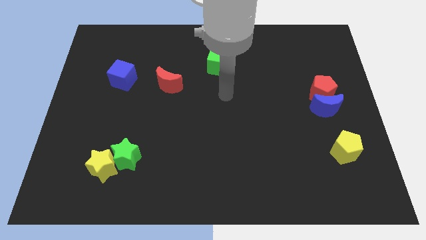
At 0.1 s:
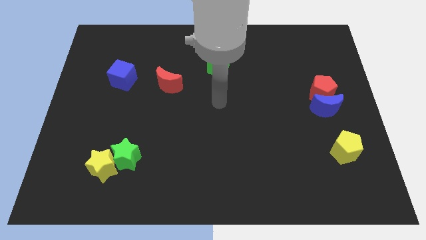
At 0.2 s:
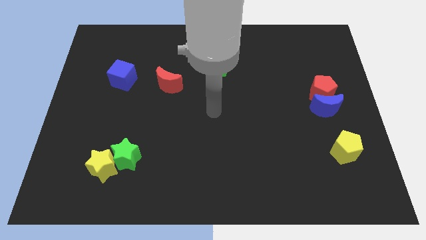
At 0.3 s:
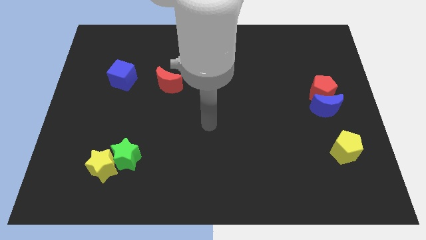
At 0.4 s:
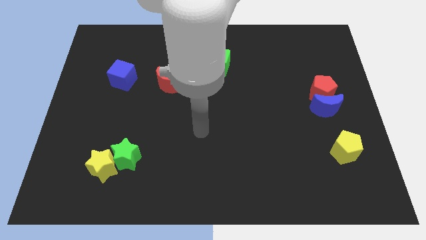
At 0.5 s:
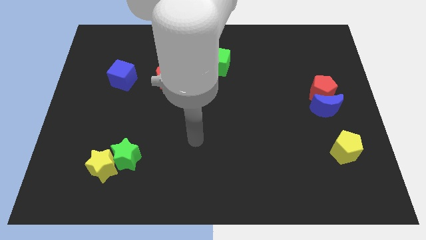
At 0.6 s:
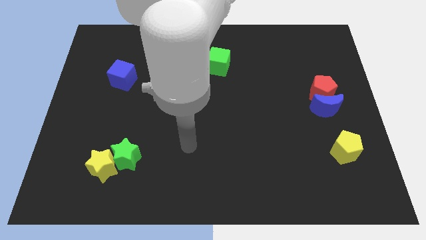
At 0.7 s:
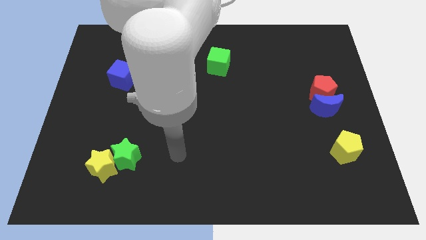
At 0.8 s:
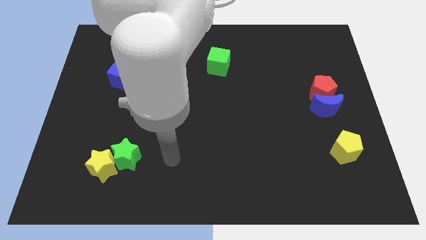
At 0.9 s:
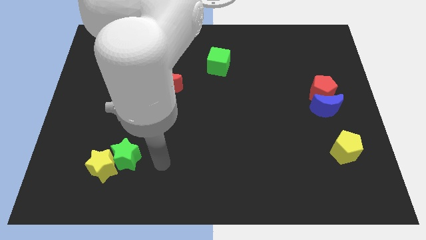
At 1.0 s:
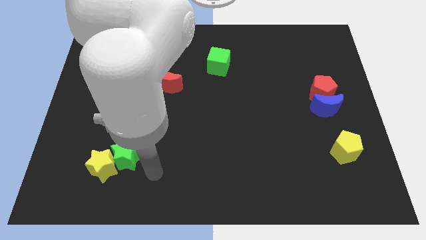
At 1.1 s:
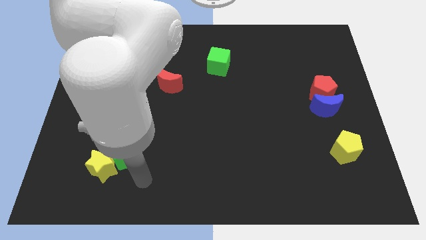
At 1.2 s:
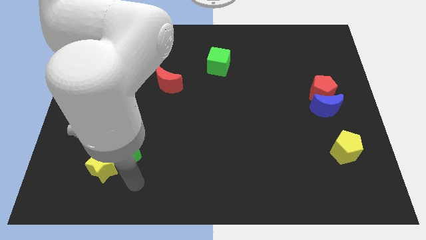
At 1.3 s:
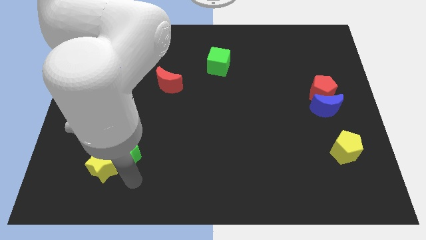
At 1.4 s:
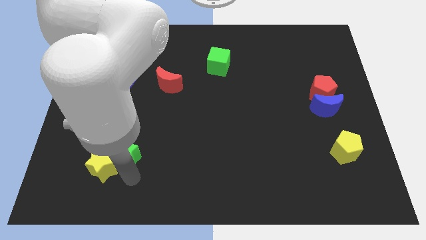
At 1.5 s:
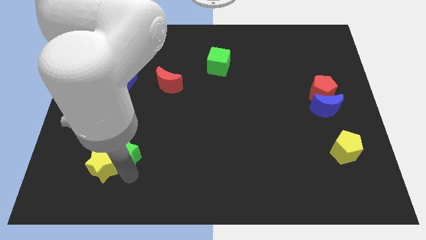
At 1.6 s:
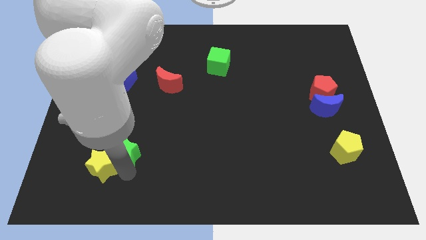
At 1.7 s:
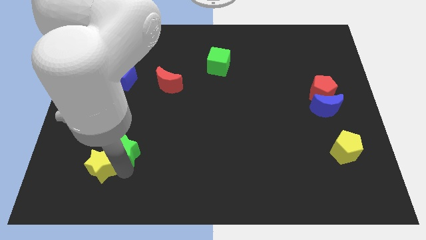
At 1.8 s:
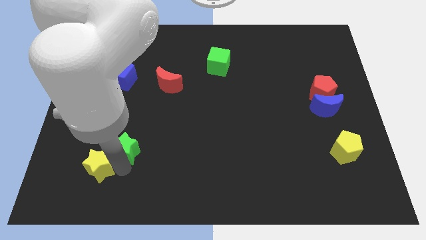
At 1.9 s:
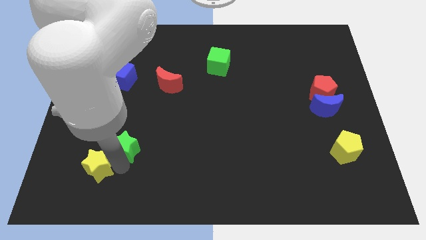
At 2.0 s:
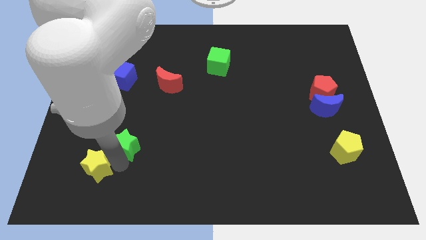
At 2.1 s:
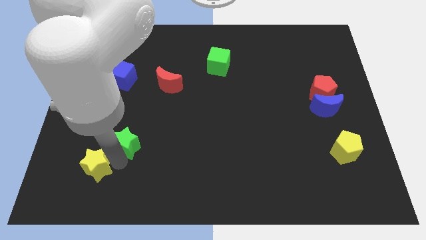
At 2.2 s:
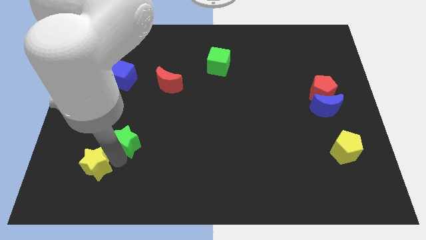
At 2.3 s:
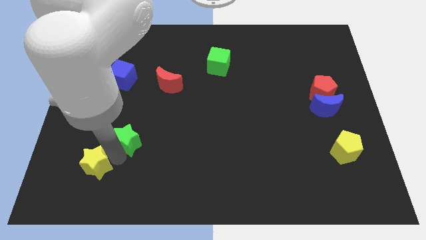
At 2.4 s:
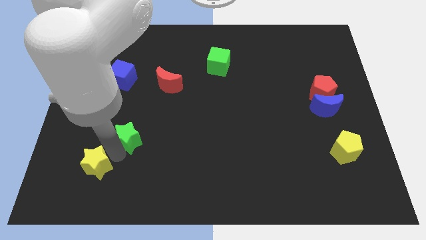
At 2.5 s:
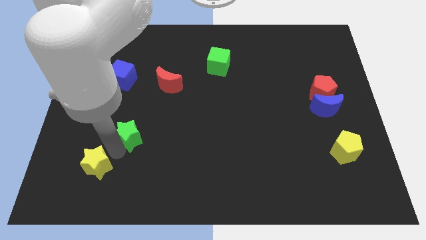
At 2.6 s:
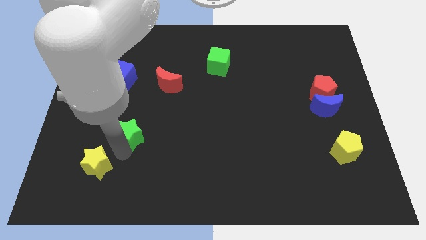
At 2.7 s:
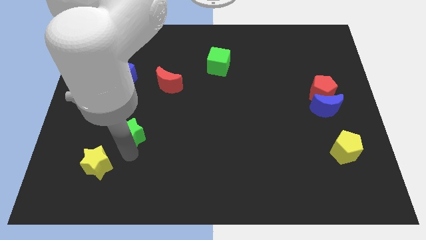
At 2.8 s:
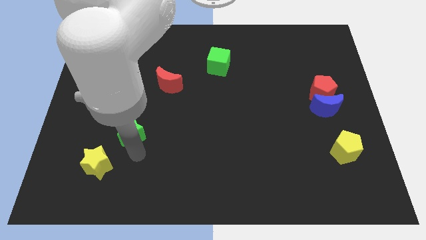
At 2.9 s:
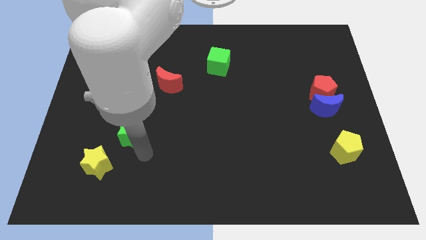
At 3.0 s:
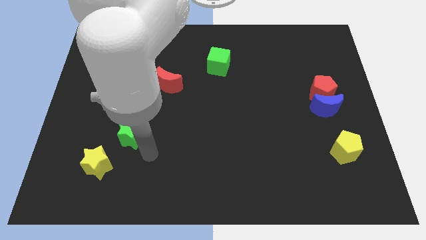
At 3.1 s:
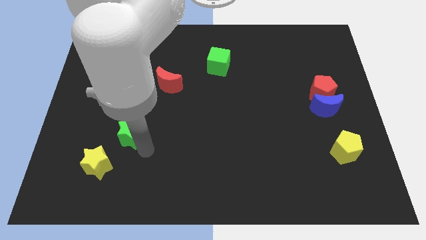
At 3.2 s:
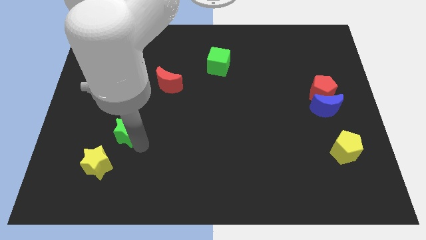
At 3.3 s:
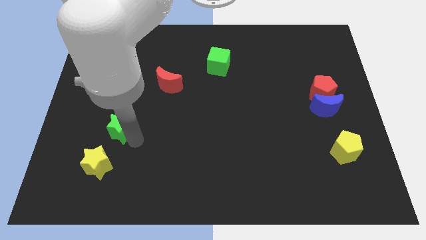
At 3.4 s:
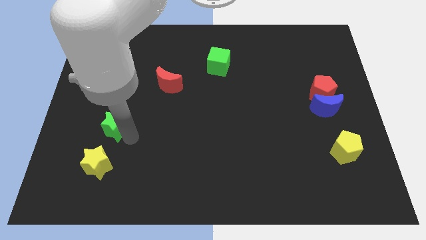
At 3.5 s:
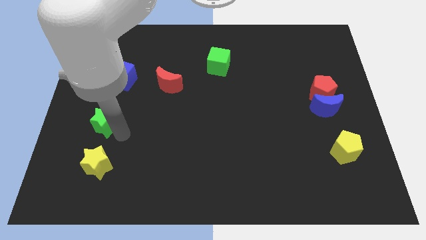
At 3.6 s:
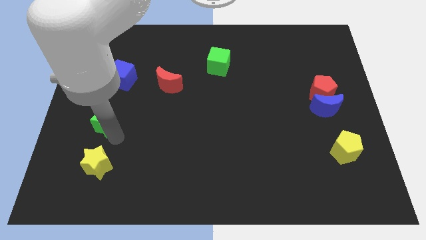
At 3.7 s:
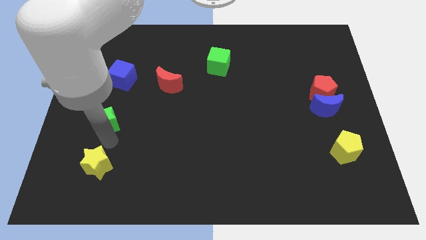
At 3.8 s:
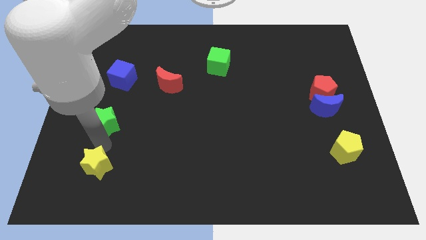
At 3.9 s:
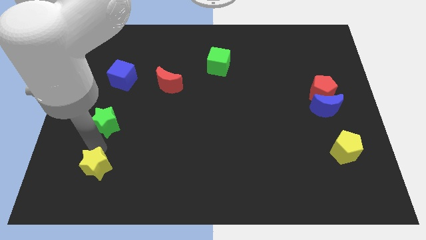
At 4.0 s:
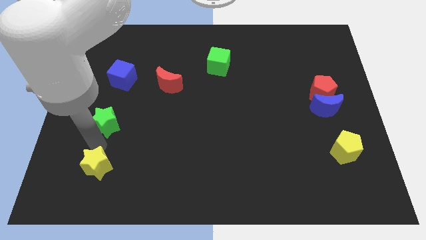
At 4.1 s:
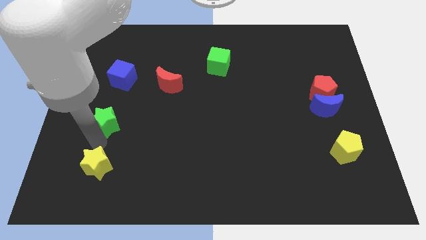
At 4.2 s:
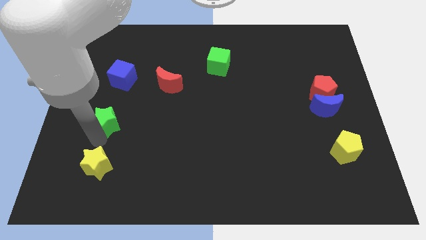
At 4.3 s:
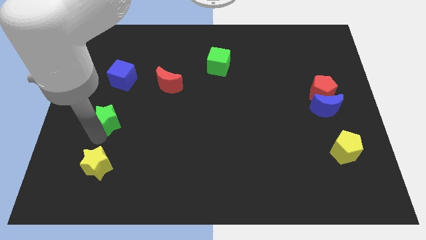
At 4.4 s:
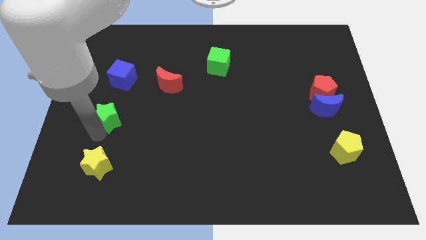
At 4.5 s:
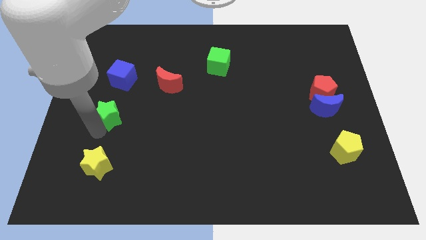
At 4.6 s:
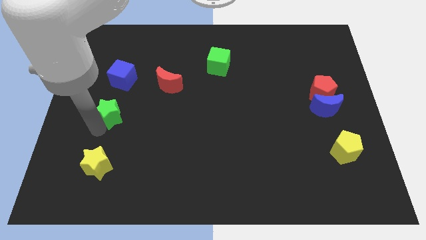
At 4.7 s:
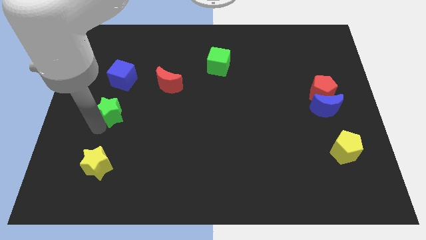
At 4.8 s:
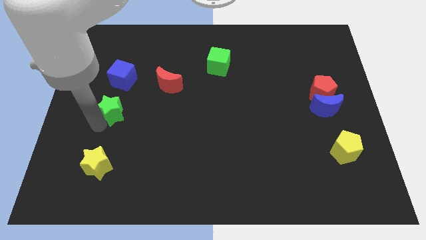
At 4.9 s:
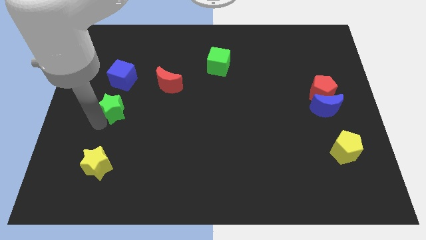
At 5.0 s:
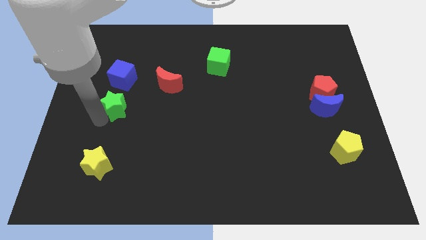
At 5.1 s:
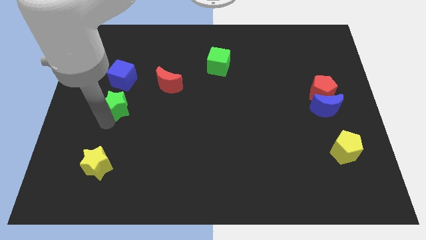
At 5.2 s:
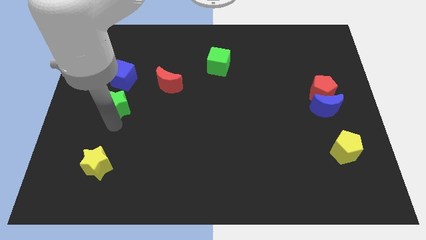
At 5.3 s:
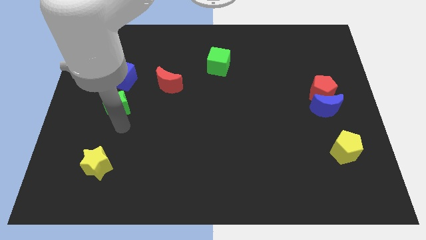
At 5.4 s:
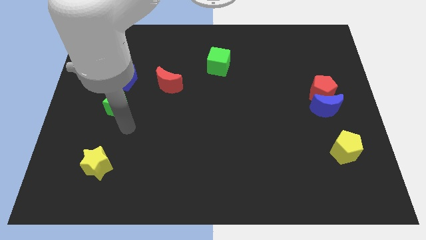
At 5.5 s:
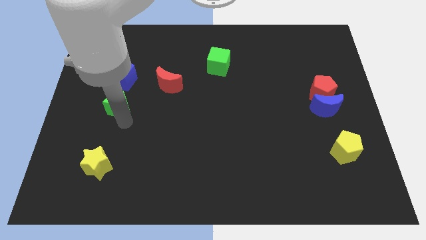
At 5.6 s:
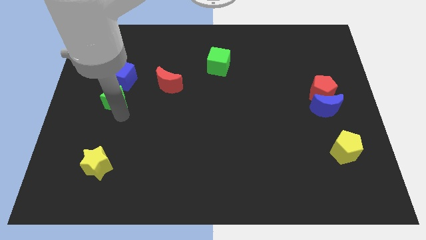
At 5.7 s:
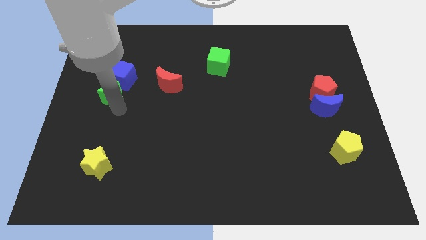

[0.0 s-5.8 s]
put the green star left of the red moon

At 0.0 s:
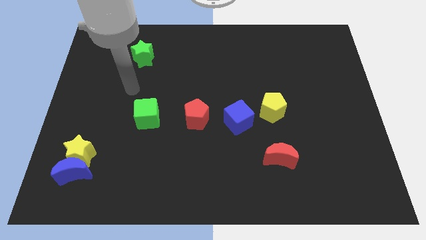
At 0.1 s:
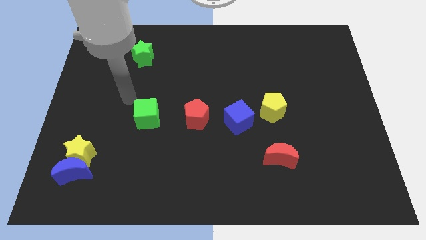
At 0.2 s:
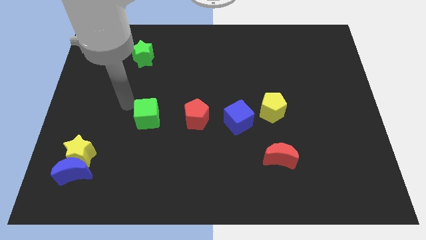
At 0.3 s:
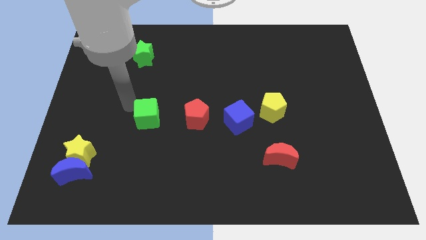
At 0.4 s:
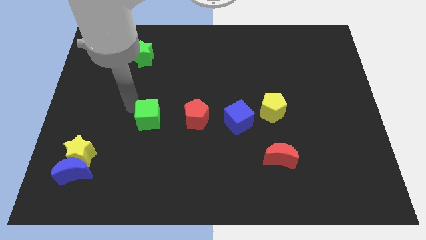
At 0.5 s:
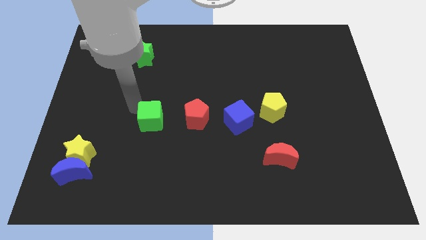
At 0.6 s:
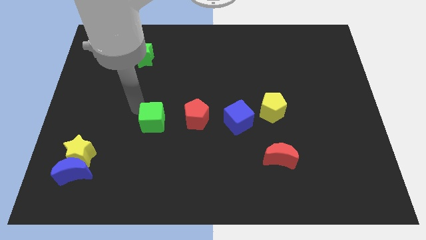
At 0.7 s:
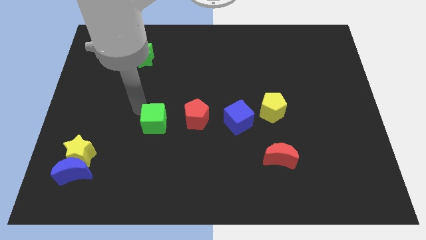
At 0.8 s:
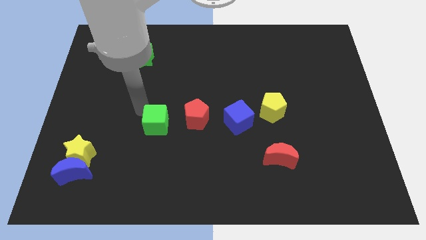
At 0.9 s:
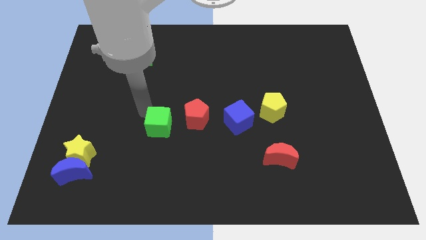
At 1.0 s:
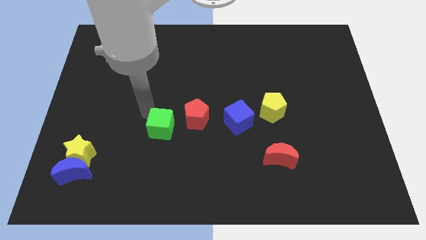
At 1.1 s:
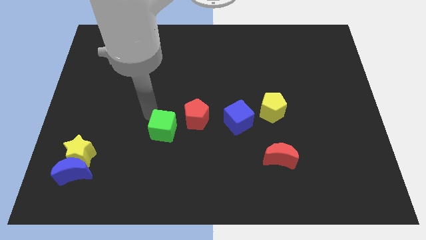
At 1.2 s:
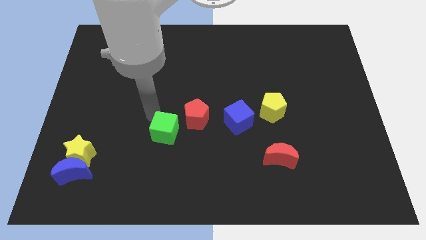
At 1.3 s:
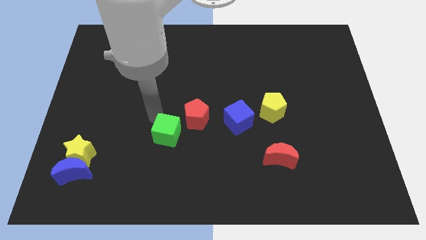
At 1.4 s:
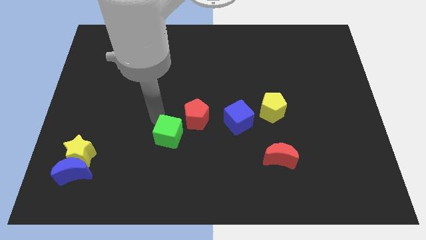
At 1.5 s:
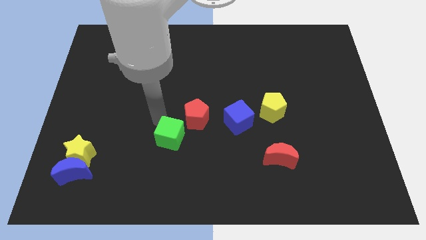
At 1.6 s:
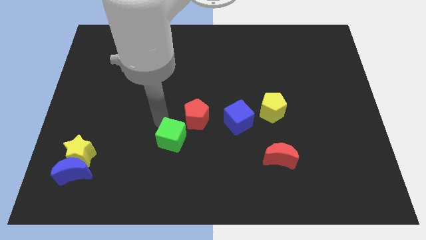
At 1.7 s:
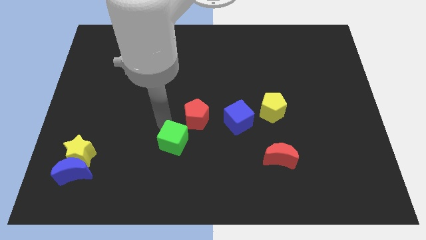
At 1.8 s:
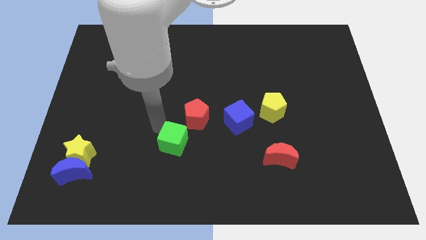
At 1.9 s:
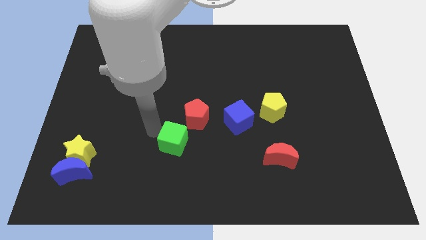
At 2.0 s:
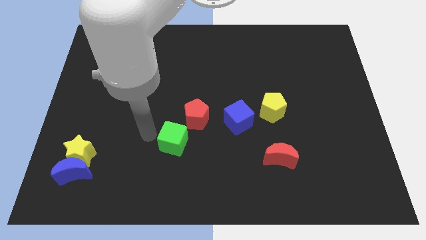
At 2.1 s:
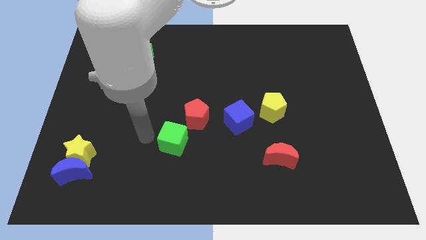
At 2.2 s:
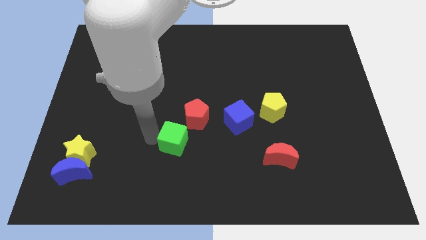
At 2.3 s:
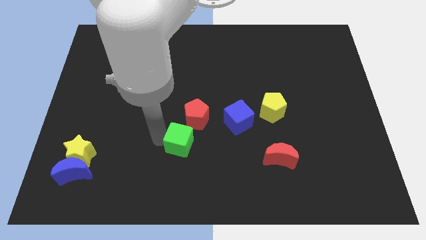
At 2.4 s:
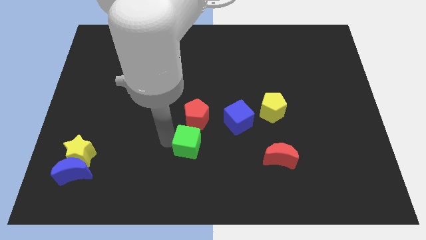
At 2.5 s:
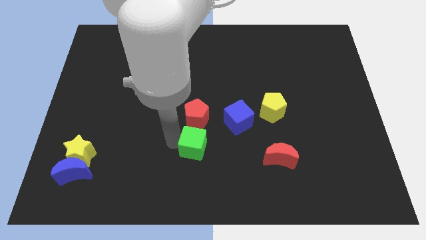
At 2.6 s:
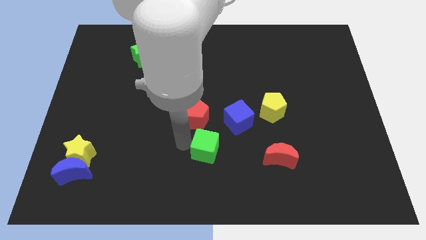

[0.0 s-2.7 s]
slide the green cube to the left of the red moon
